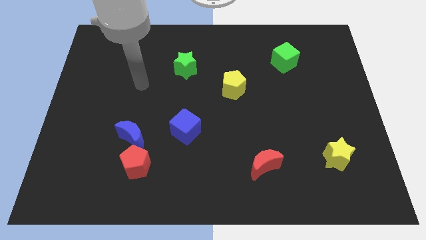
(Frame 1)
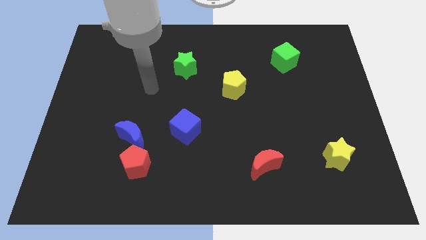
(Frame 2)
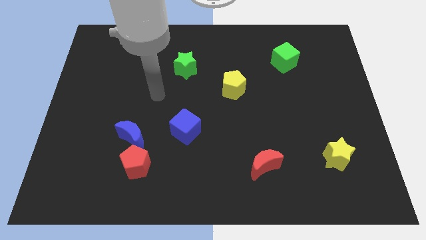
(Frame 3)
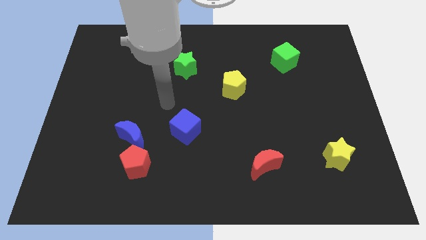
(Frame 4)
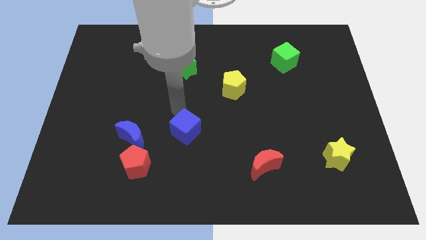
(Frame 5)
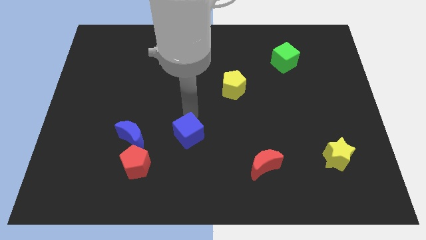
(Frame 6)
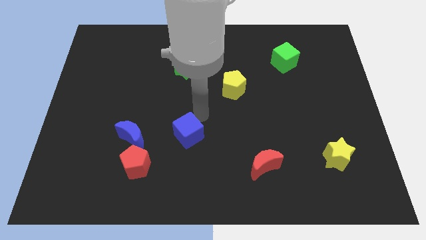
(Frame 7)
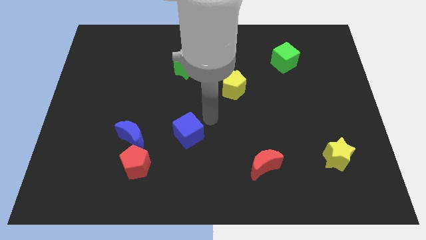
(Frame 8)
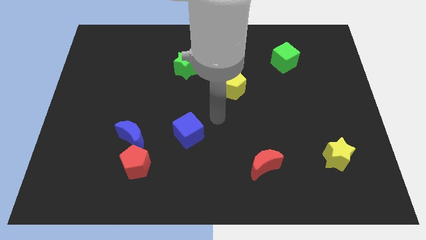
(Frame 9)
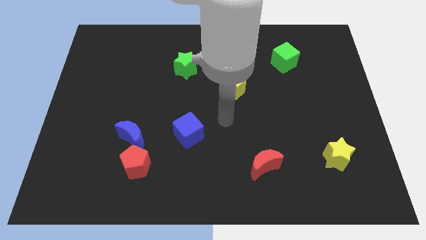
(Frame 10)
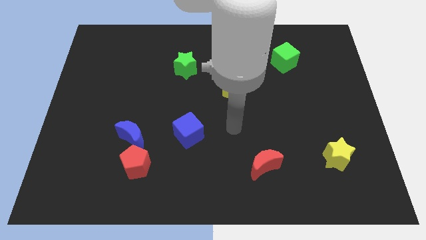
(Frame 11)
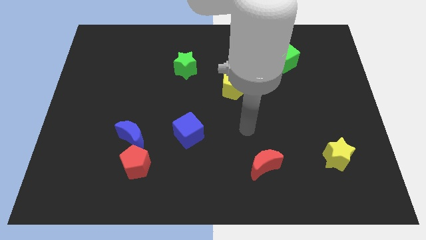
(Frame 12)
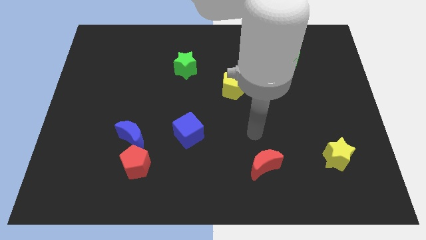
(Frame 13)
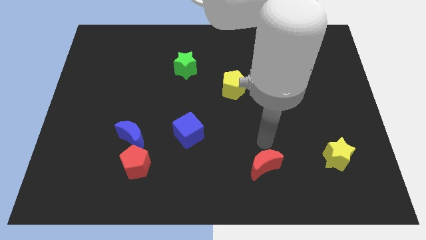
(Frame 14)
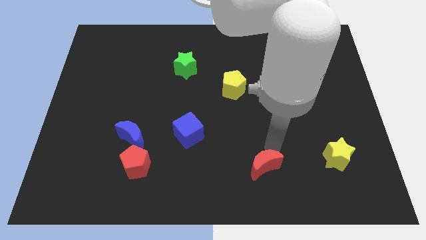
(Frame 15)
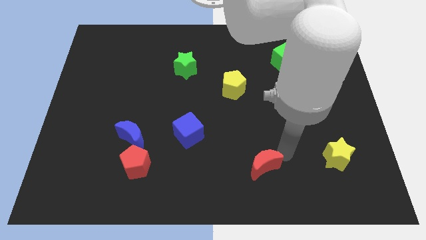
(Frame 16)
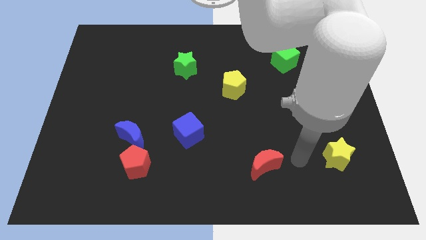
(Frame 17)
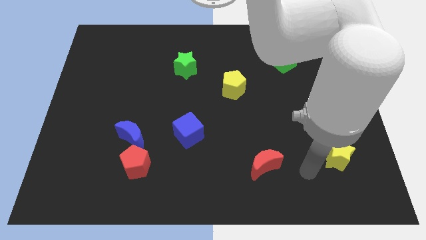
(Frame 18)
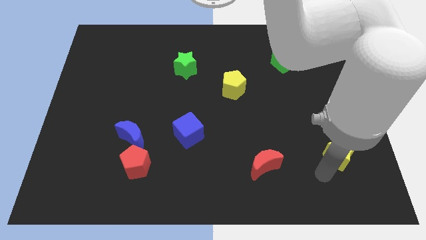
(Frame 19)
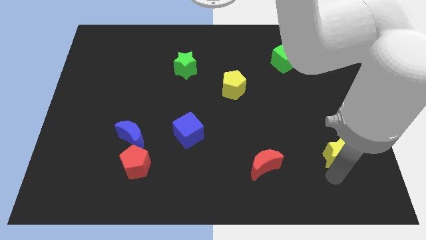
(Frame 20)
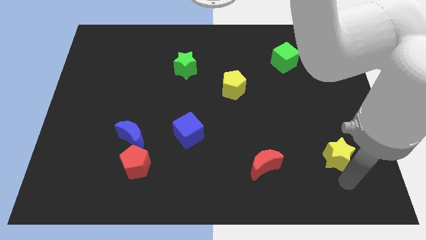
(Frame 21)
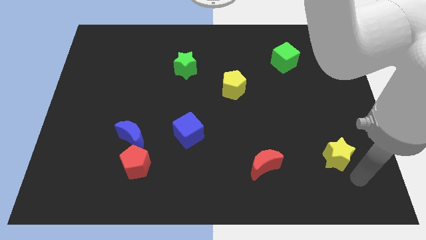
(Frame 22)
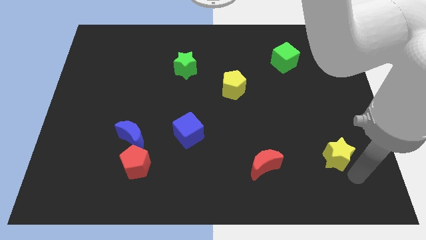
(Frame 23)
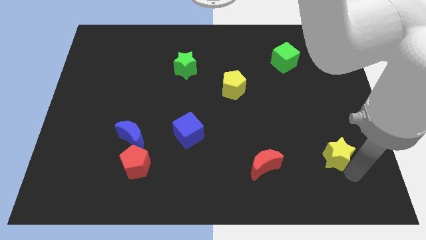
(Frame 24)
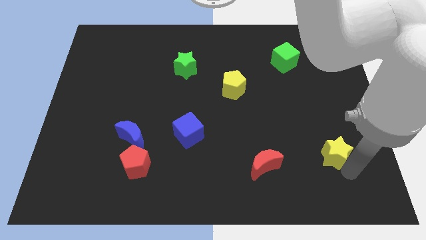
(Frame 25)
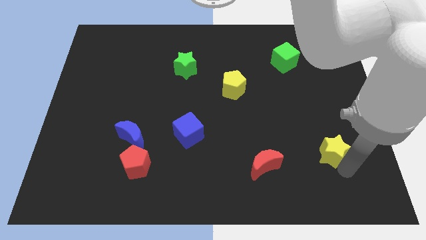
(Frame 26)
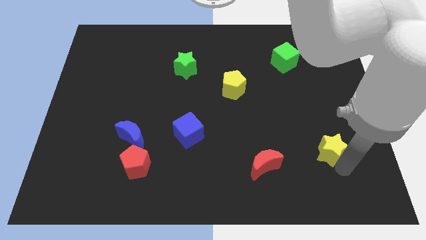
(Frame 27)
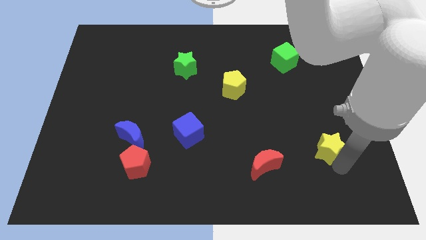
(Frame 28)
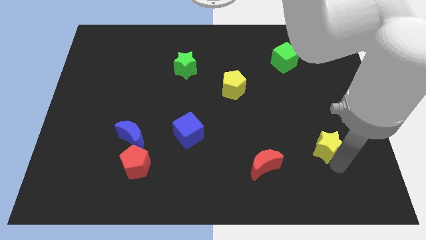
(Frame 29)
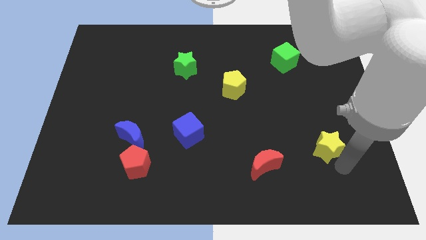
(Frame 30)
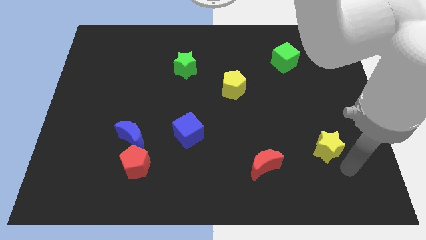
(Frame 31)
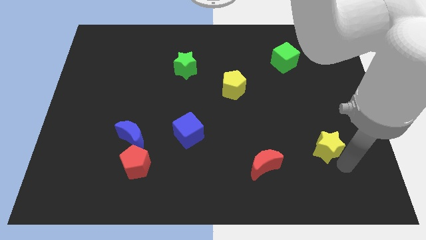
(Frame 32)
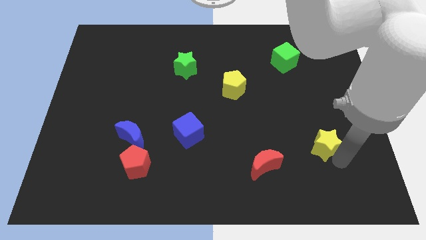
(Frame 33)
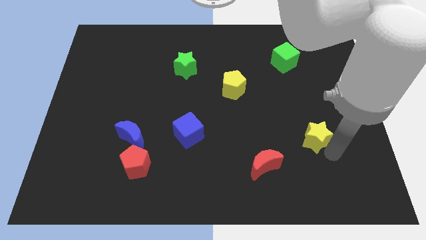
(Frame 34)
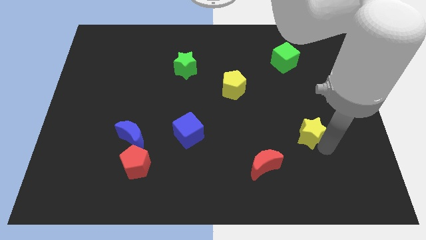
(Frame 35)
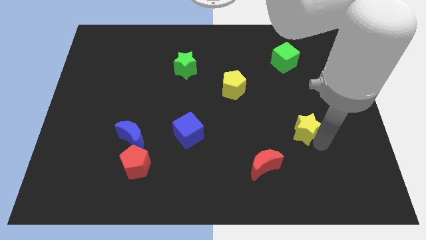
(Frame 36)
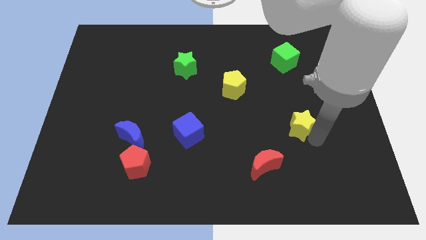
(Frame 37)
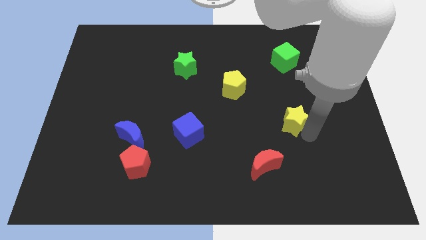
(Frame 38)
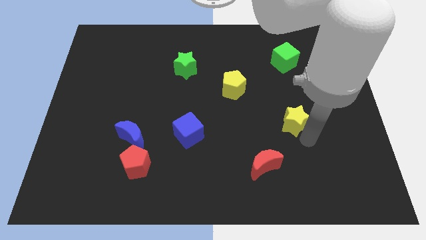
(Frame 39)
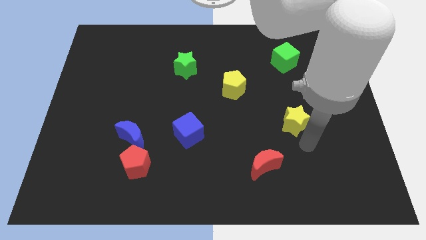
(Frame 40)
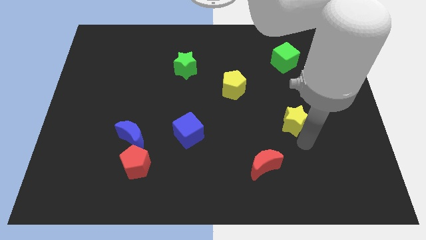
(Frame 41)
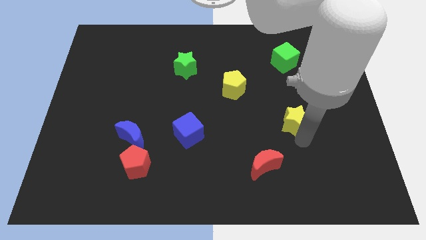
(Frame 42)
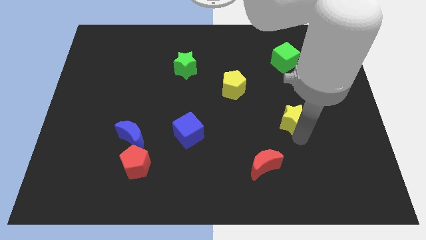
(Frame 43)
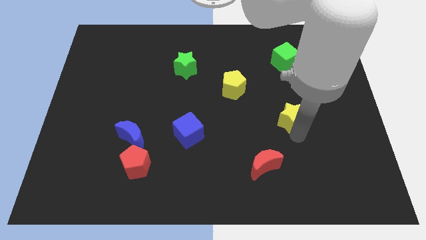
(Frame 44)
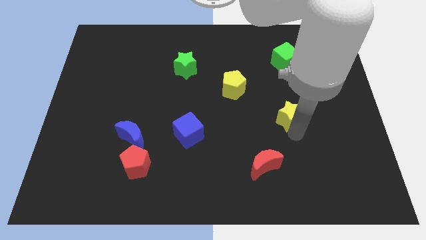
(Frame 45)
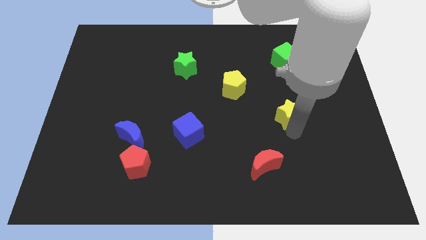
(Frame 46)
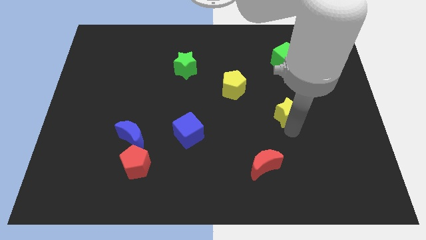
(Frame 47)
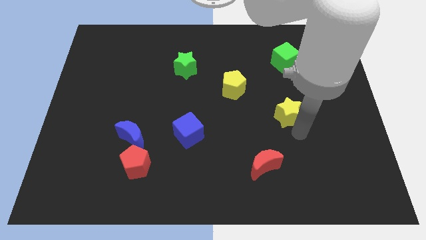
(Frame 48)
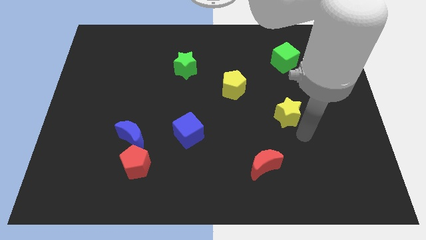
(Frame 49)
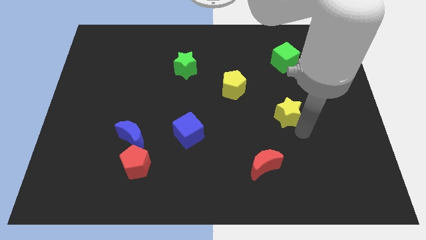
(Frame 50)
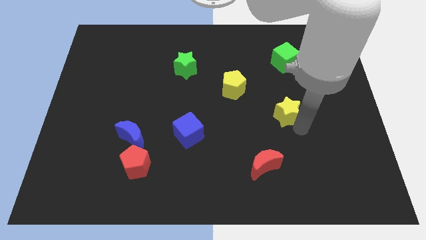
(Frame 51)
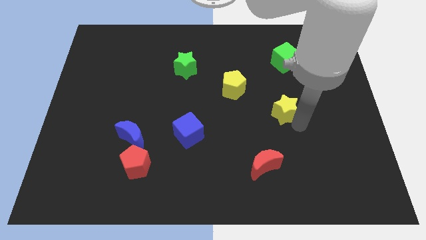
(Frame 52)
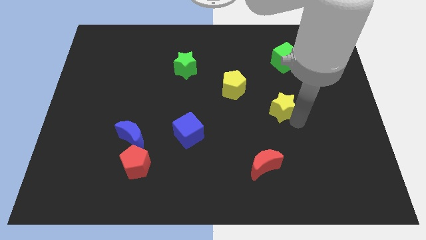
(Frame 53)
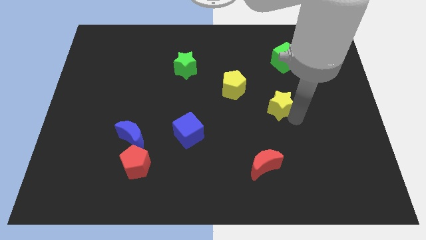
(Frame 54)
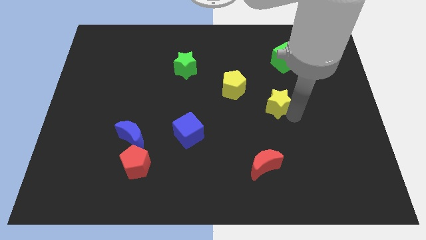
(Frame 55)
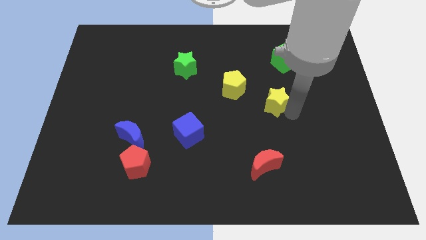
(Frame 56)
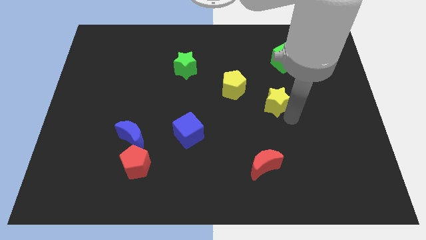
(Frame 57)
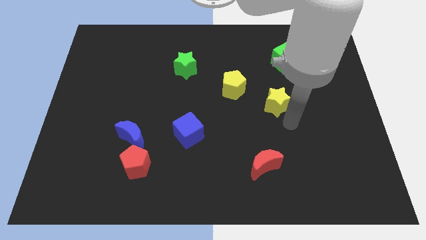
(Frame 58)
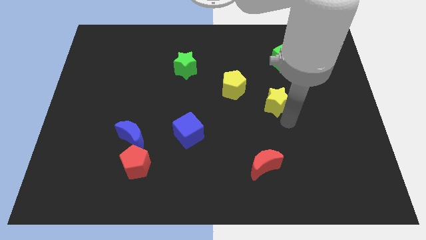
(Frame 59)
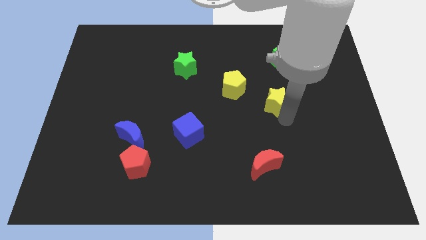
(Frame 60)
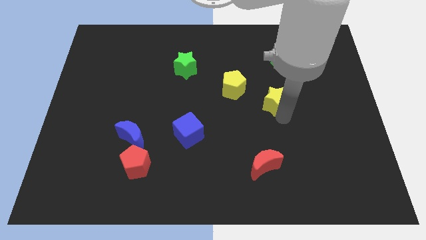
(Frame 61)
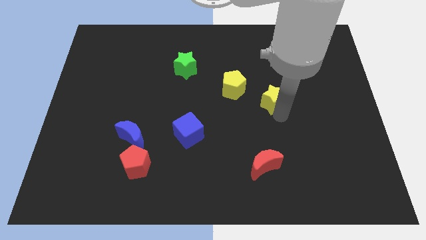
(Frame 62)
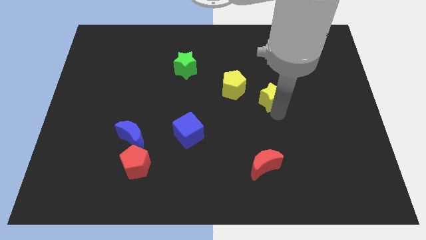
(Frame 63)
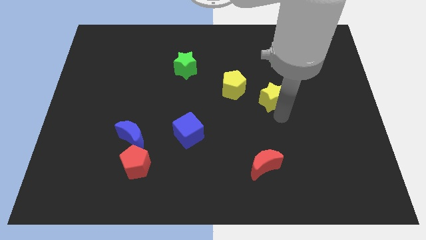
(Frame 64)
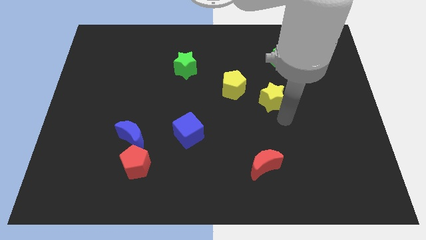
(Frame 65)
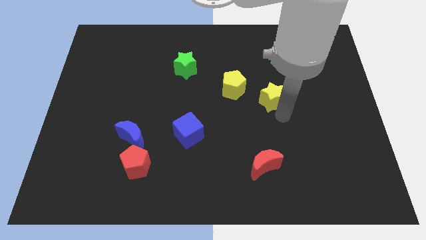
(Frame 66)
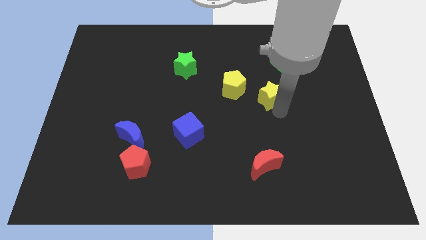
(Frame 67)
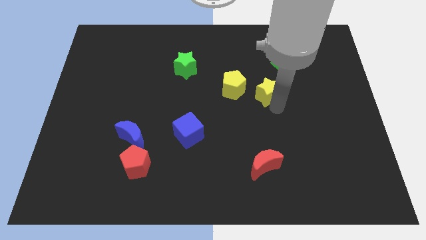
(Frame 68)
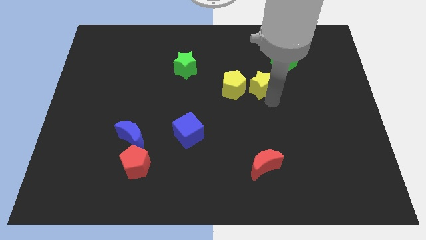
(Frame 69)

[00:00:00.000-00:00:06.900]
move the yellow star to the top right side of the yellow pentagon
